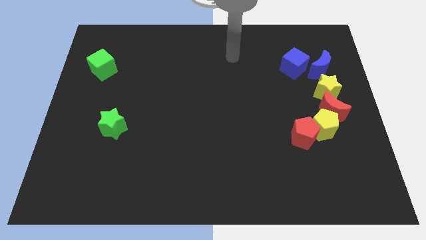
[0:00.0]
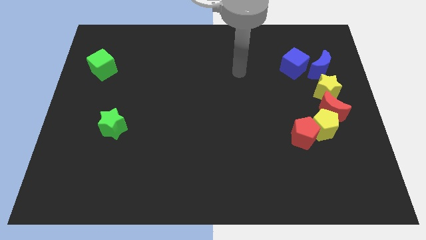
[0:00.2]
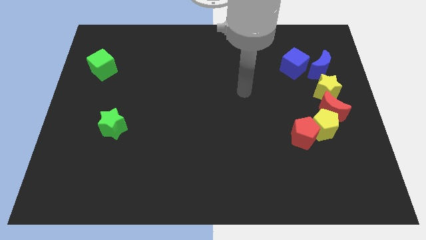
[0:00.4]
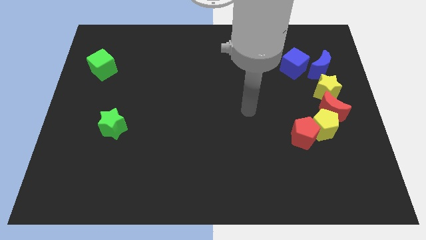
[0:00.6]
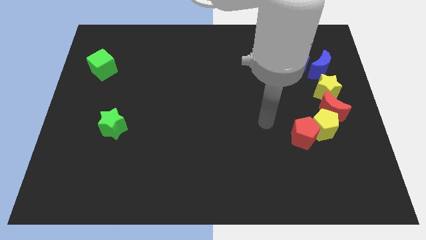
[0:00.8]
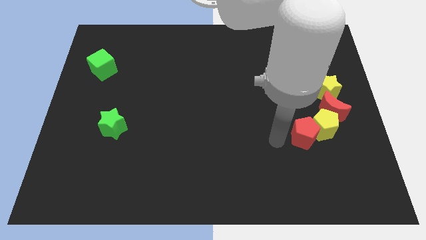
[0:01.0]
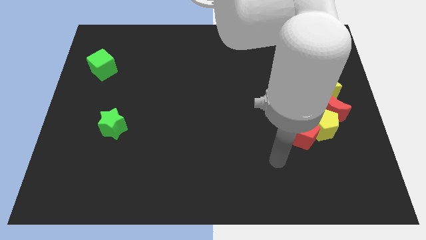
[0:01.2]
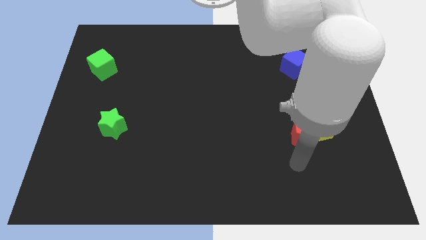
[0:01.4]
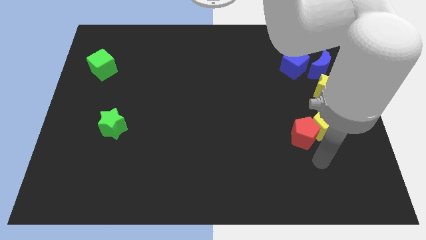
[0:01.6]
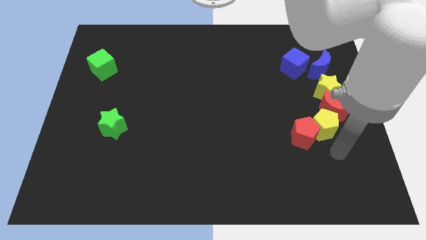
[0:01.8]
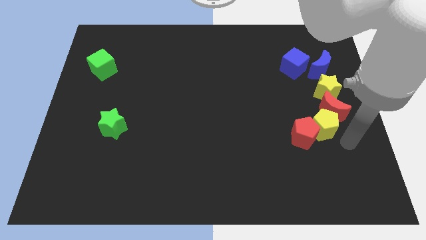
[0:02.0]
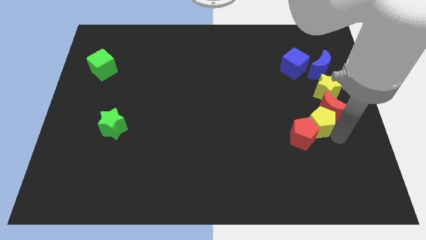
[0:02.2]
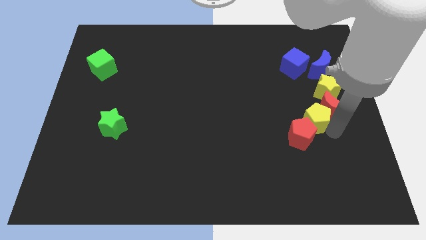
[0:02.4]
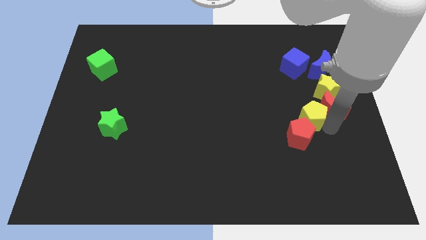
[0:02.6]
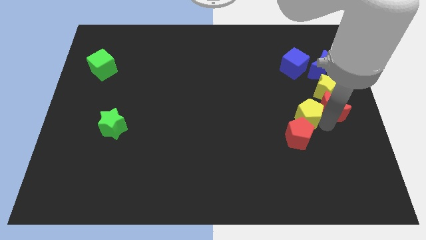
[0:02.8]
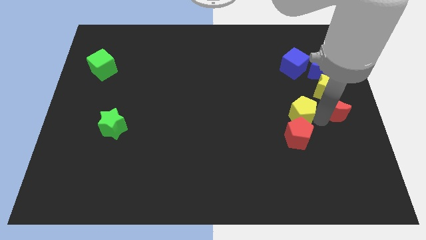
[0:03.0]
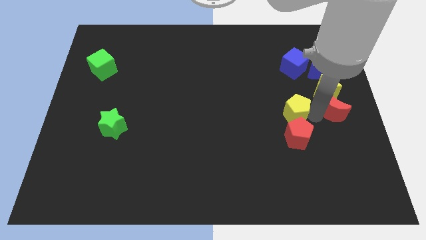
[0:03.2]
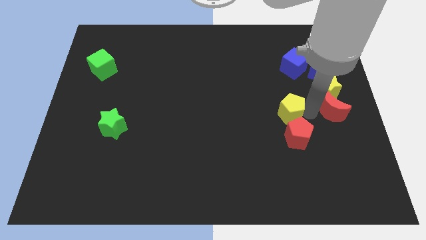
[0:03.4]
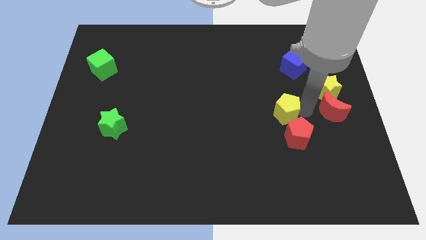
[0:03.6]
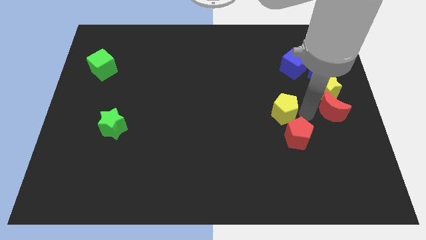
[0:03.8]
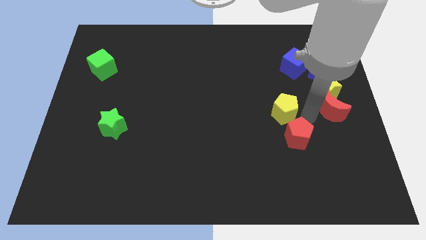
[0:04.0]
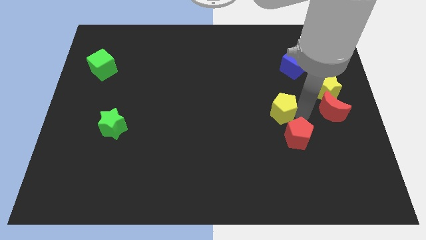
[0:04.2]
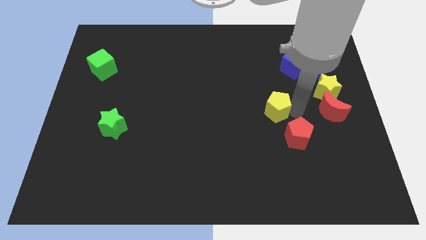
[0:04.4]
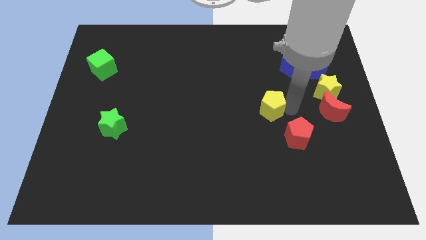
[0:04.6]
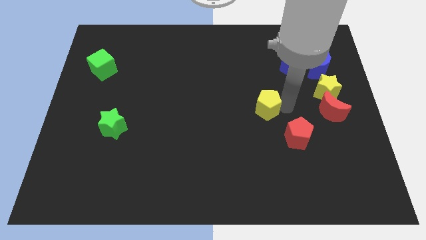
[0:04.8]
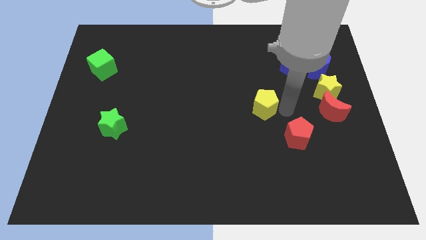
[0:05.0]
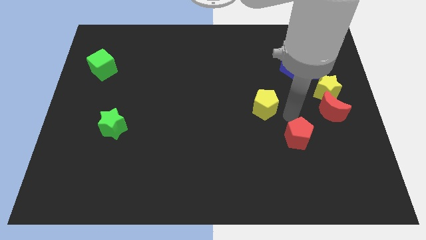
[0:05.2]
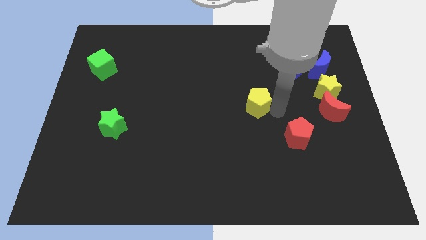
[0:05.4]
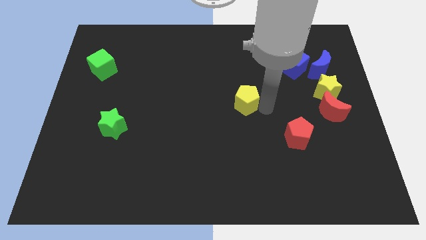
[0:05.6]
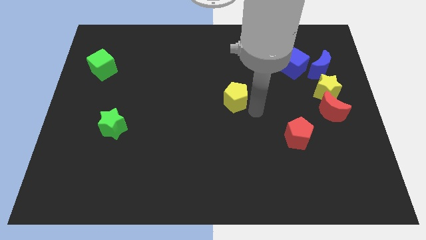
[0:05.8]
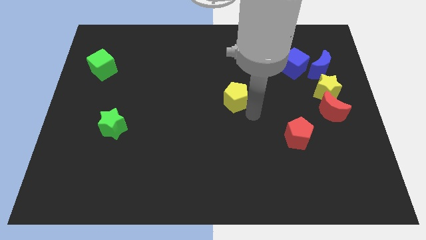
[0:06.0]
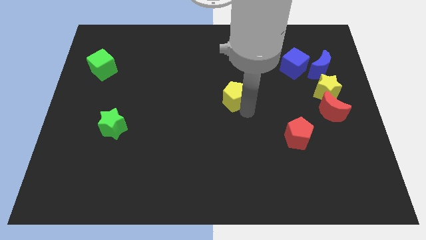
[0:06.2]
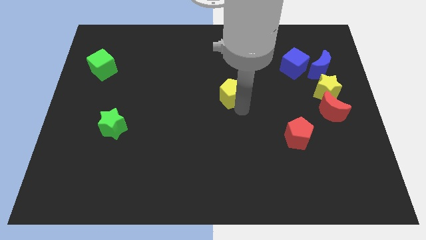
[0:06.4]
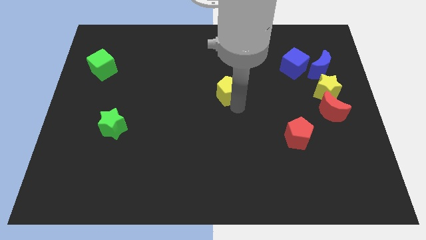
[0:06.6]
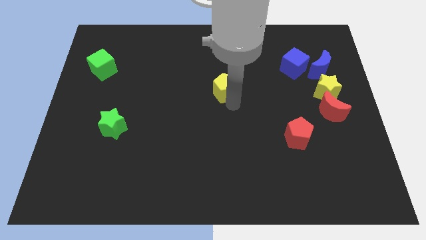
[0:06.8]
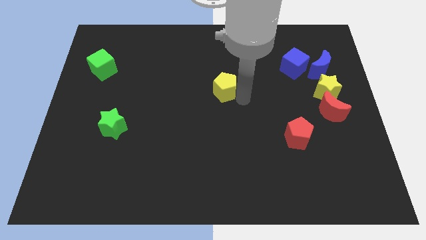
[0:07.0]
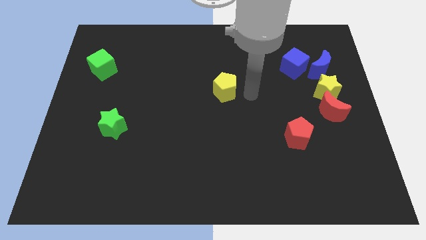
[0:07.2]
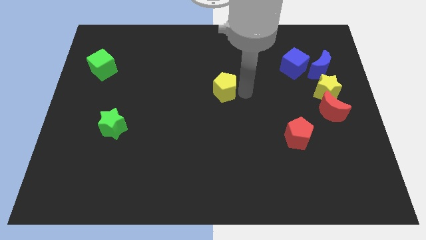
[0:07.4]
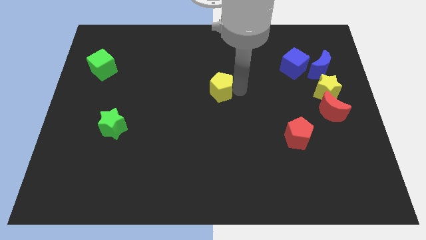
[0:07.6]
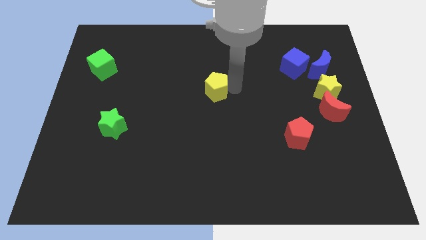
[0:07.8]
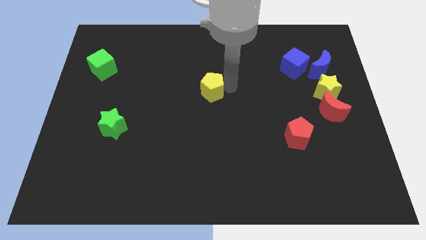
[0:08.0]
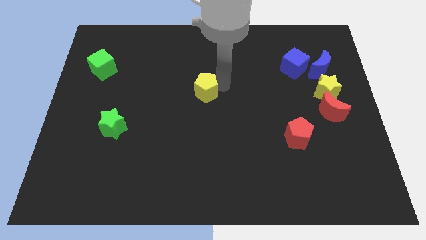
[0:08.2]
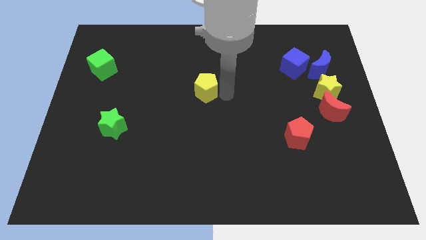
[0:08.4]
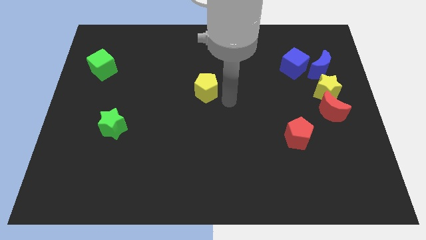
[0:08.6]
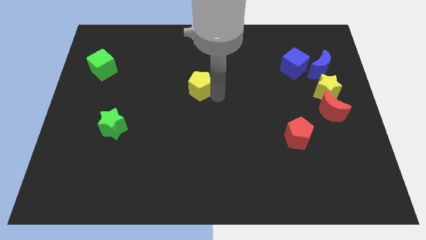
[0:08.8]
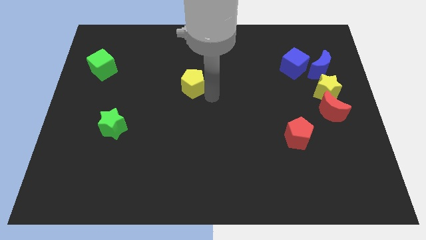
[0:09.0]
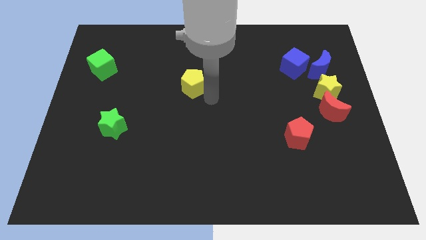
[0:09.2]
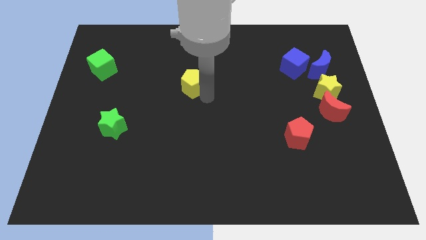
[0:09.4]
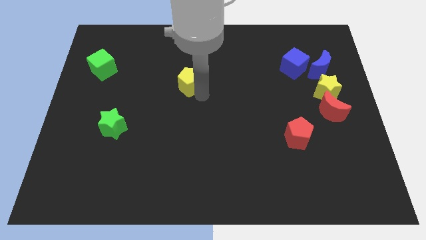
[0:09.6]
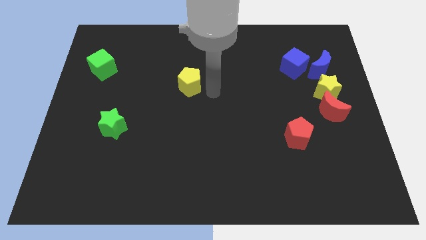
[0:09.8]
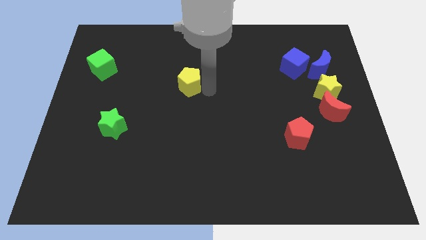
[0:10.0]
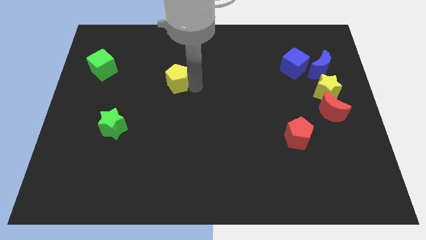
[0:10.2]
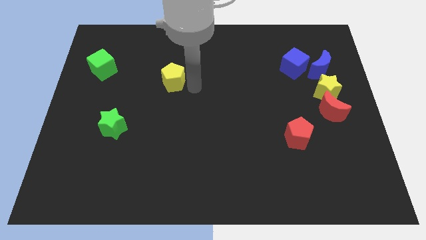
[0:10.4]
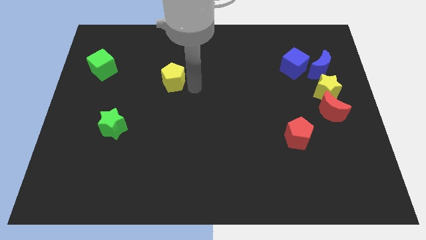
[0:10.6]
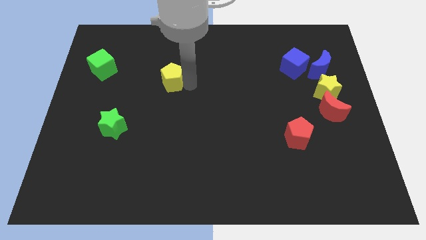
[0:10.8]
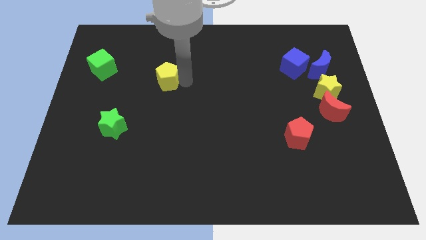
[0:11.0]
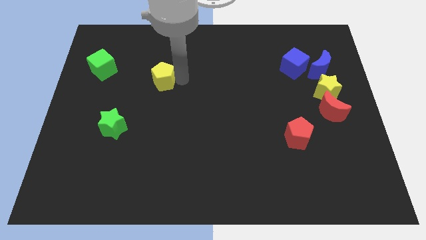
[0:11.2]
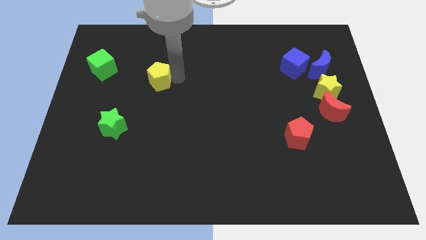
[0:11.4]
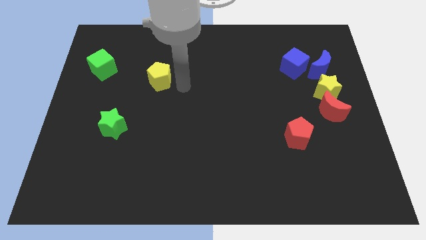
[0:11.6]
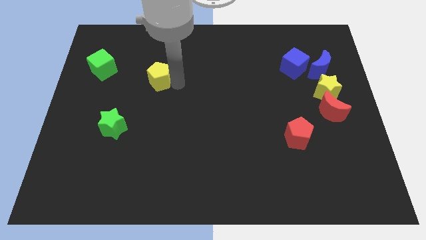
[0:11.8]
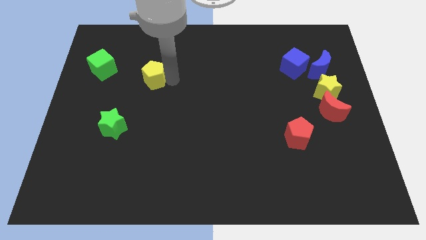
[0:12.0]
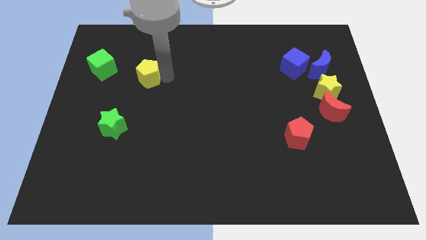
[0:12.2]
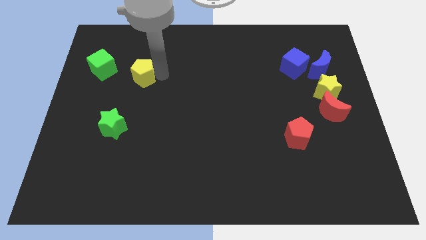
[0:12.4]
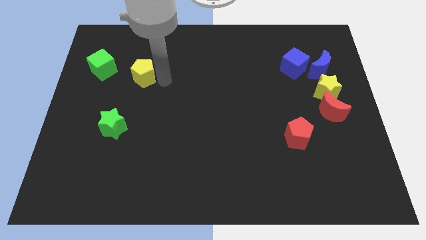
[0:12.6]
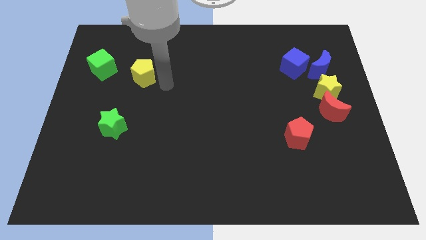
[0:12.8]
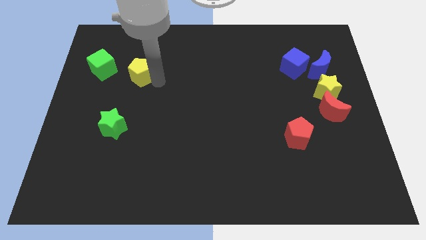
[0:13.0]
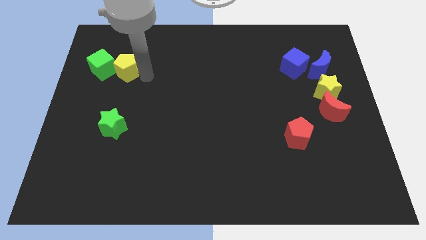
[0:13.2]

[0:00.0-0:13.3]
slide the yellow pentagon towards the green cube

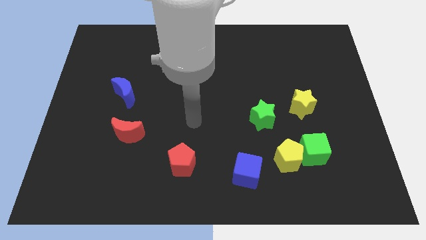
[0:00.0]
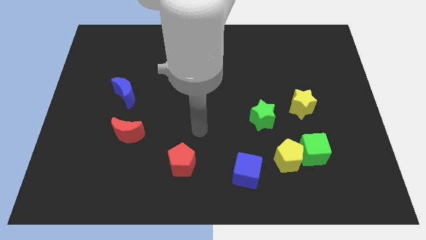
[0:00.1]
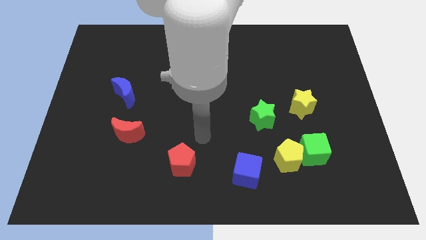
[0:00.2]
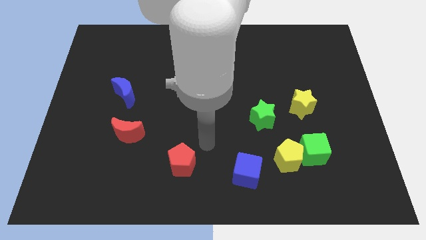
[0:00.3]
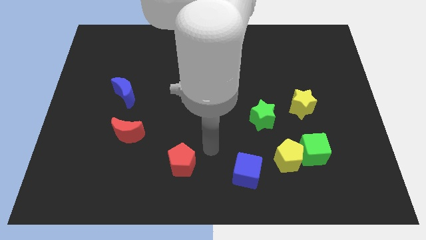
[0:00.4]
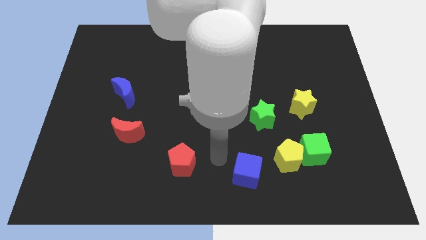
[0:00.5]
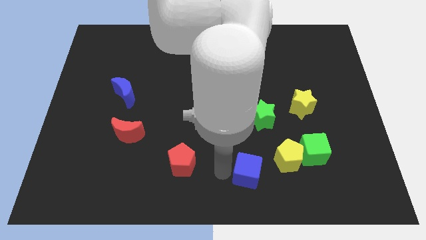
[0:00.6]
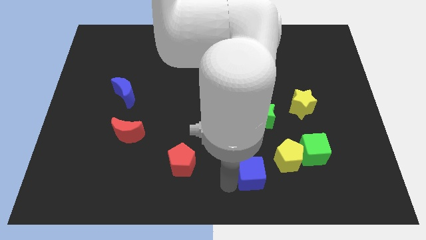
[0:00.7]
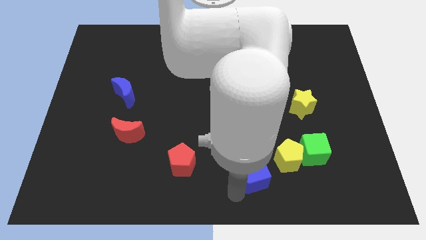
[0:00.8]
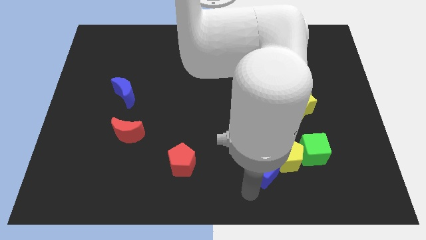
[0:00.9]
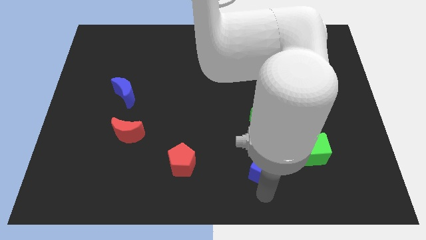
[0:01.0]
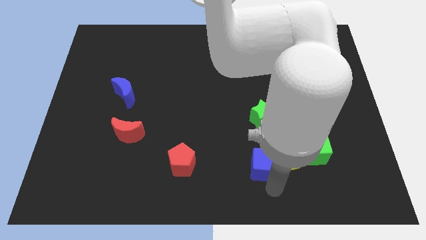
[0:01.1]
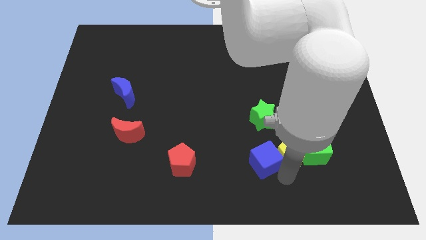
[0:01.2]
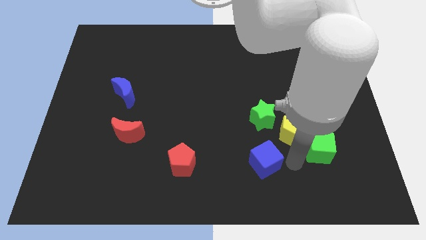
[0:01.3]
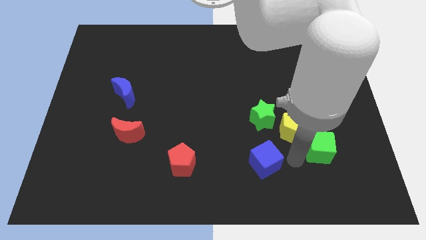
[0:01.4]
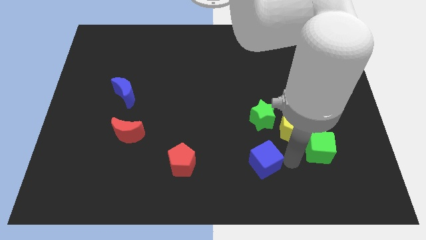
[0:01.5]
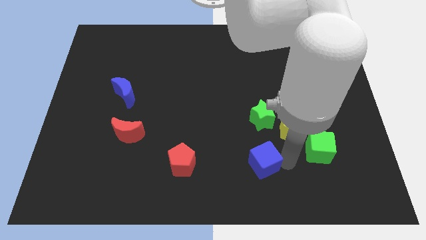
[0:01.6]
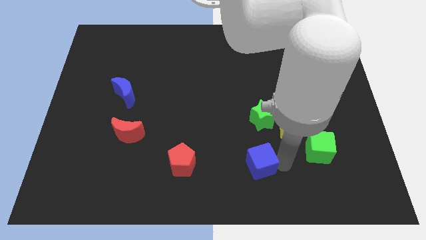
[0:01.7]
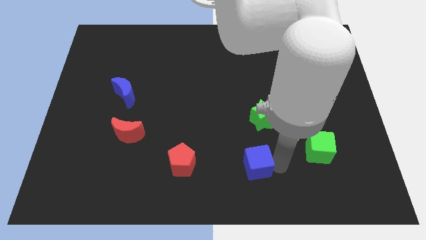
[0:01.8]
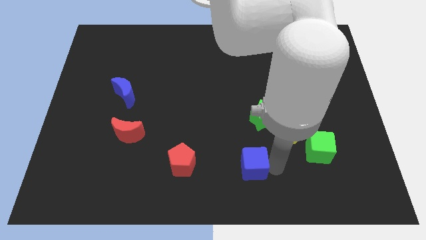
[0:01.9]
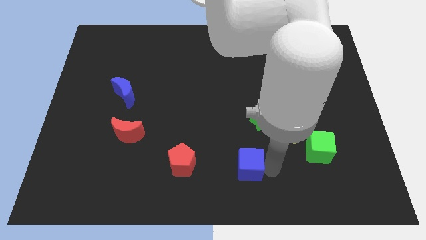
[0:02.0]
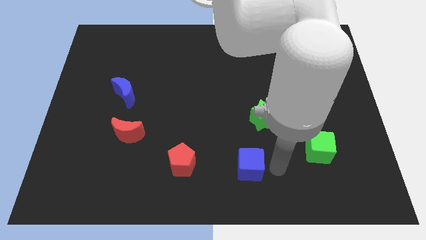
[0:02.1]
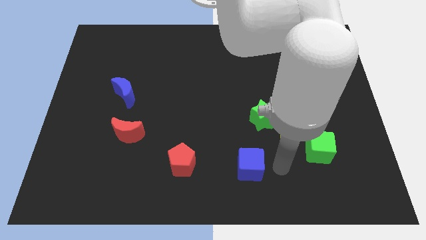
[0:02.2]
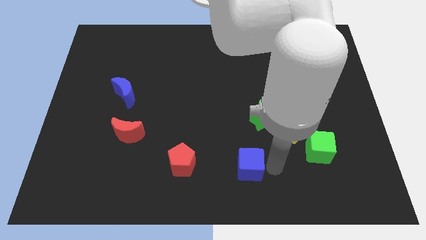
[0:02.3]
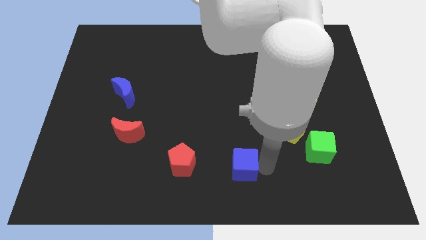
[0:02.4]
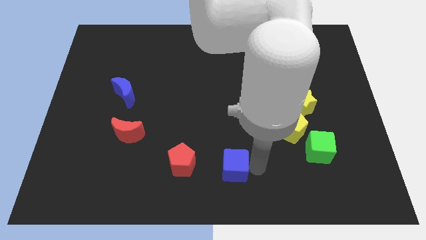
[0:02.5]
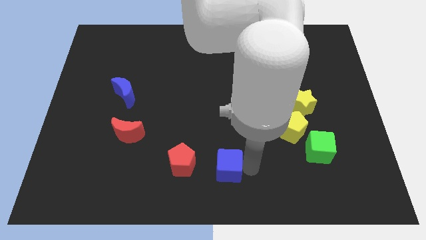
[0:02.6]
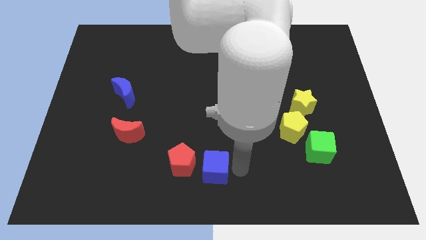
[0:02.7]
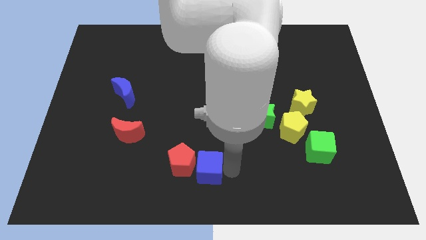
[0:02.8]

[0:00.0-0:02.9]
slide the blue cube to the red pentagon
